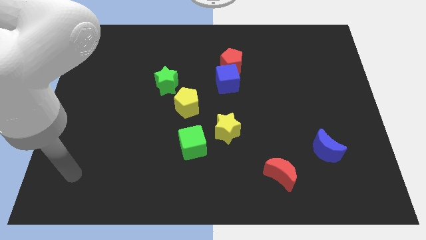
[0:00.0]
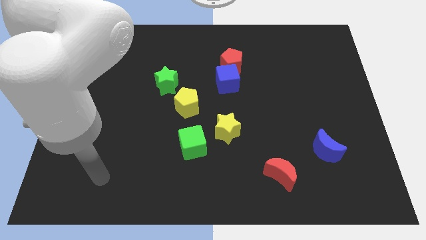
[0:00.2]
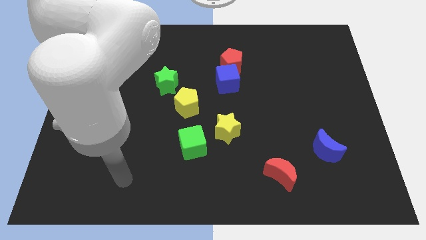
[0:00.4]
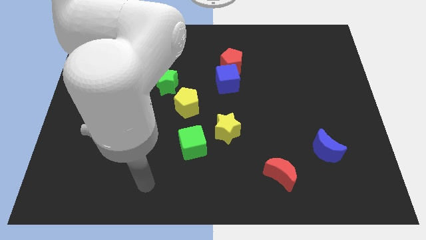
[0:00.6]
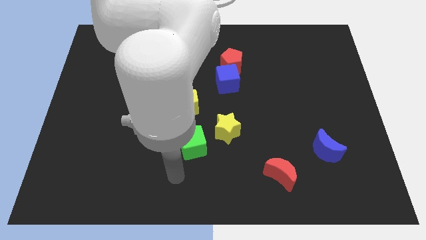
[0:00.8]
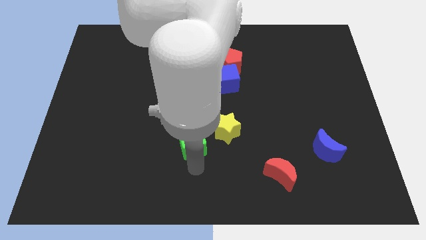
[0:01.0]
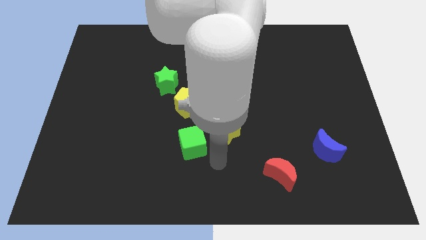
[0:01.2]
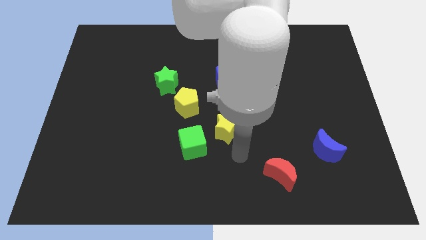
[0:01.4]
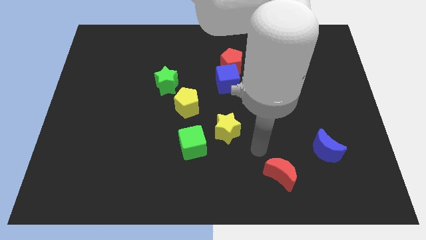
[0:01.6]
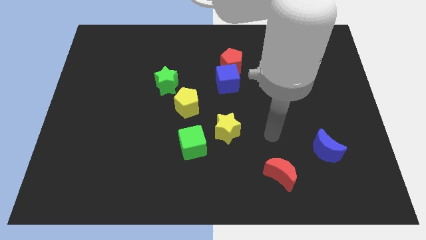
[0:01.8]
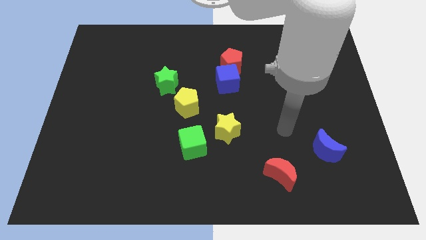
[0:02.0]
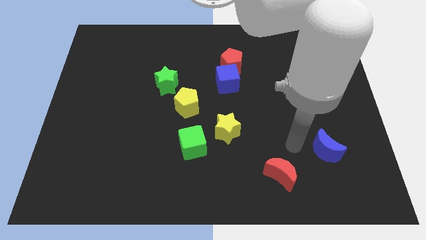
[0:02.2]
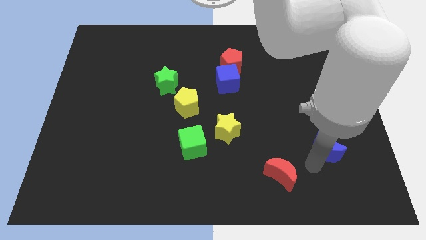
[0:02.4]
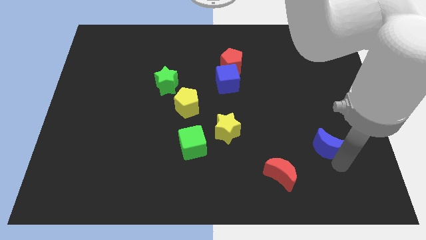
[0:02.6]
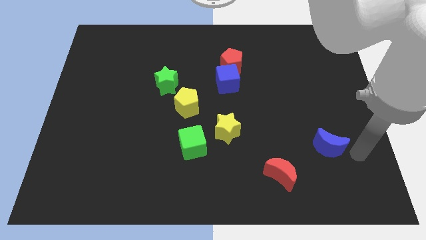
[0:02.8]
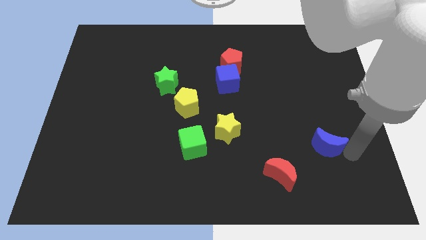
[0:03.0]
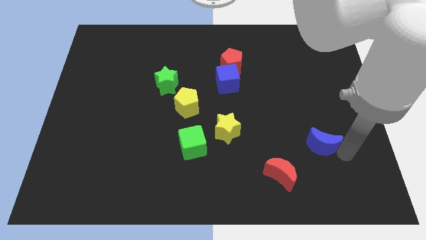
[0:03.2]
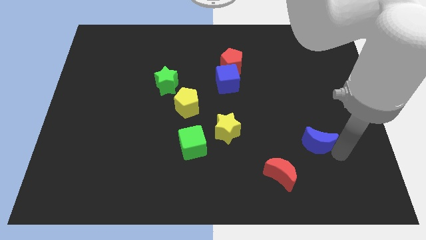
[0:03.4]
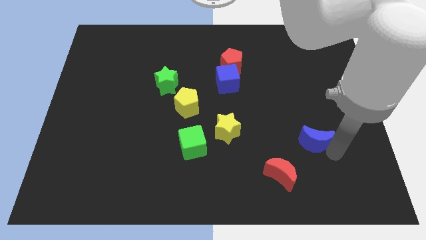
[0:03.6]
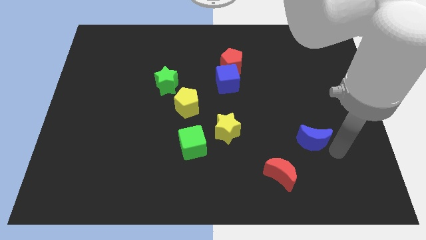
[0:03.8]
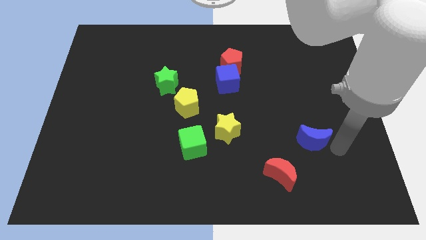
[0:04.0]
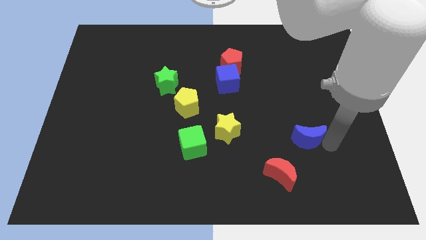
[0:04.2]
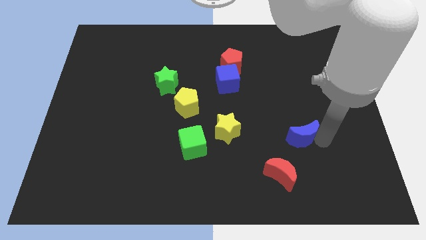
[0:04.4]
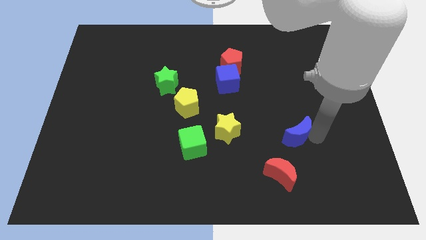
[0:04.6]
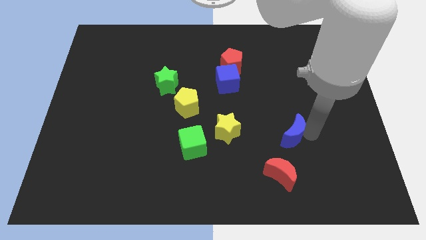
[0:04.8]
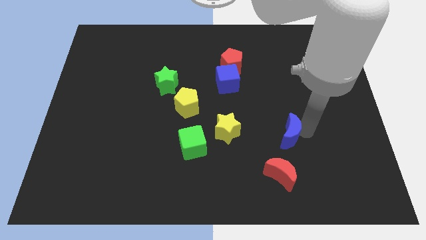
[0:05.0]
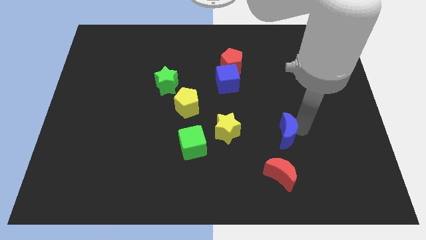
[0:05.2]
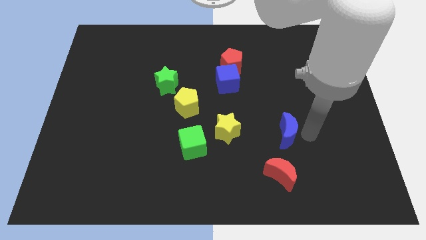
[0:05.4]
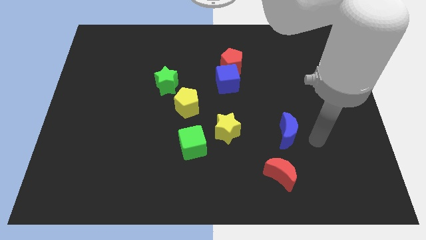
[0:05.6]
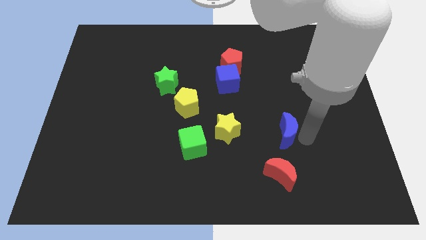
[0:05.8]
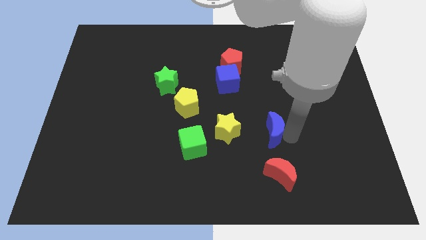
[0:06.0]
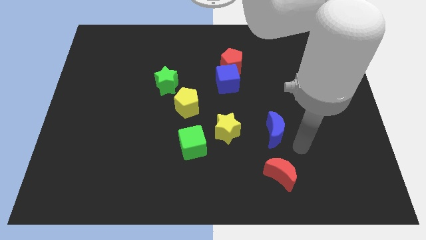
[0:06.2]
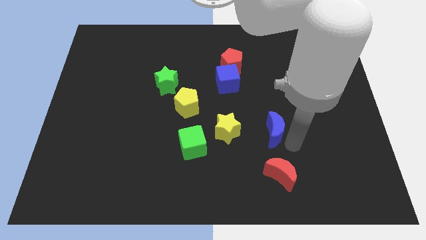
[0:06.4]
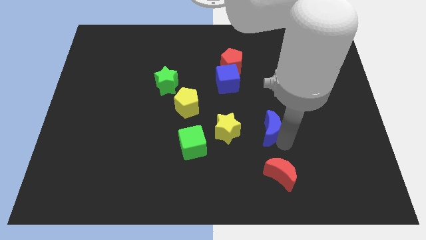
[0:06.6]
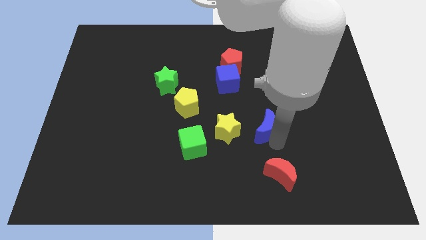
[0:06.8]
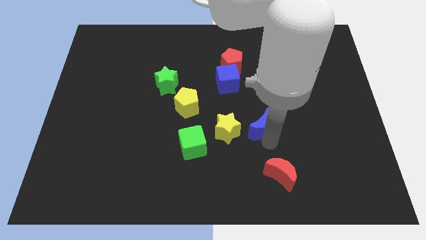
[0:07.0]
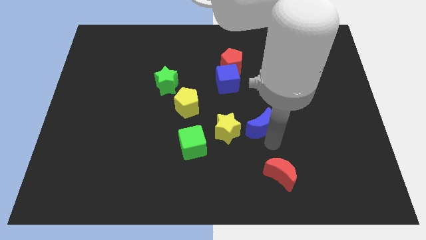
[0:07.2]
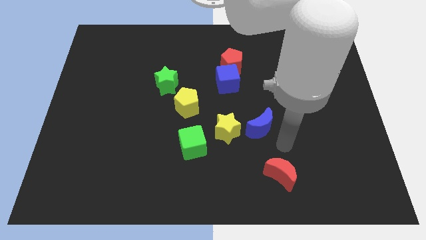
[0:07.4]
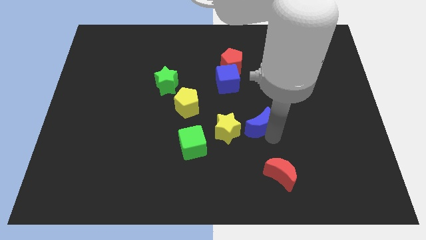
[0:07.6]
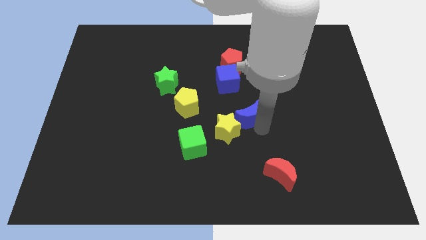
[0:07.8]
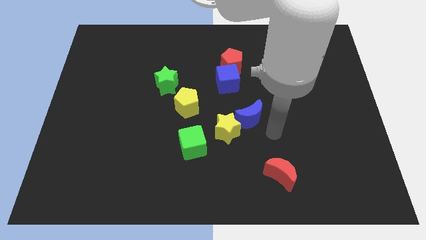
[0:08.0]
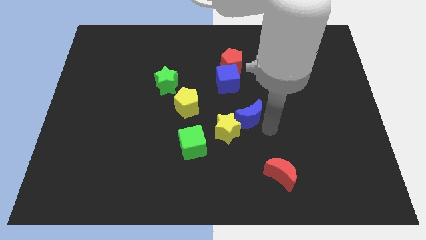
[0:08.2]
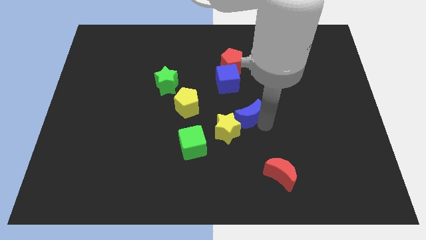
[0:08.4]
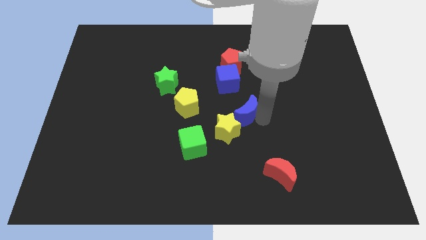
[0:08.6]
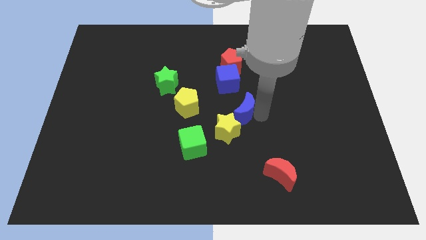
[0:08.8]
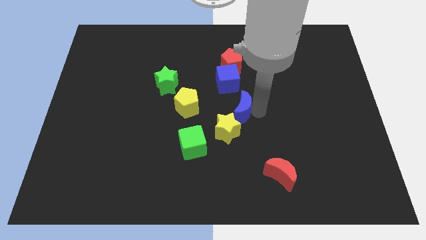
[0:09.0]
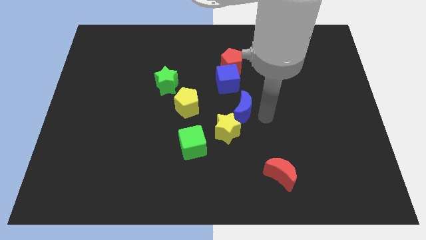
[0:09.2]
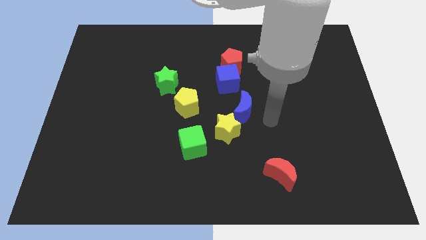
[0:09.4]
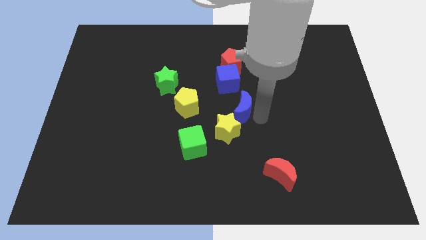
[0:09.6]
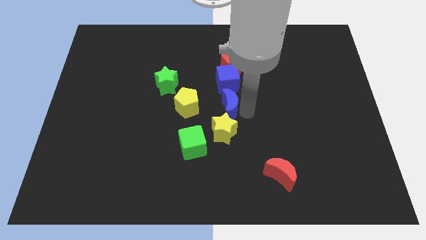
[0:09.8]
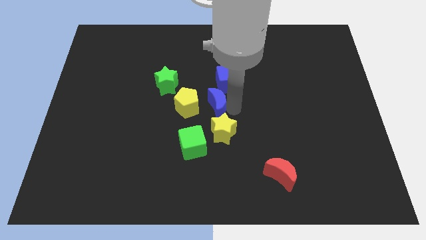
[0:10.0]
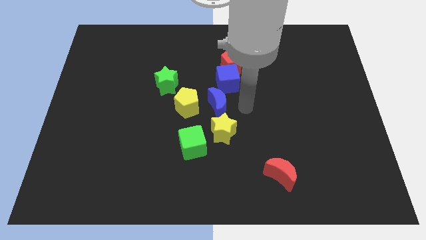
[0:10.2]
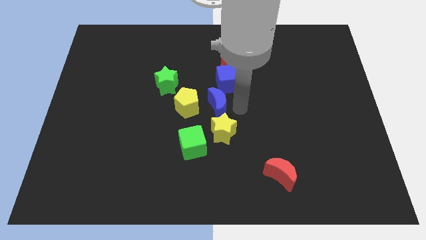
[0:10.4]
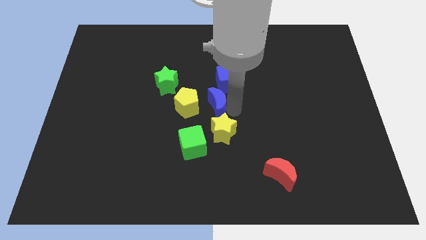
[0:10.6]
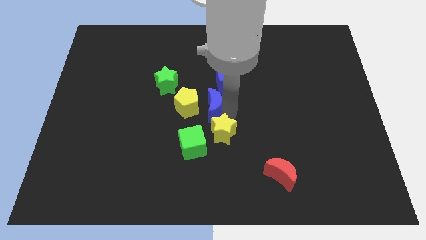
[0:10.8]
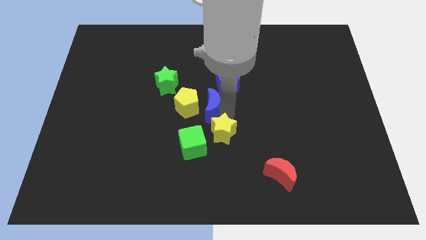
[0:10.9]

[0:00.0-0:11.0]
push the blue moon close to the yellow pentagon

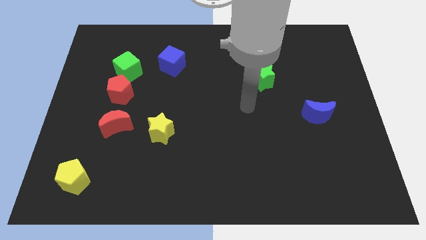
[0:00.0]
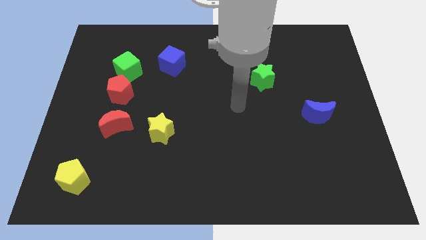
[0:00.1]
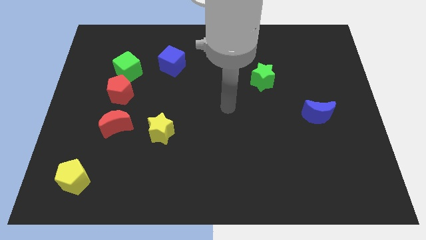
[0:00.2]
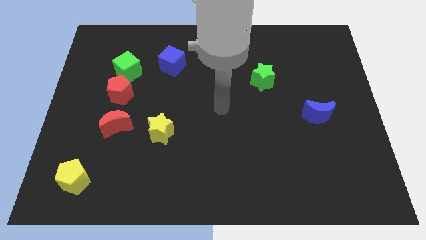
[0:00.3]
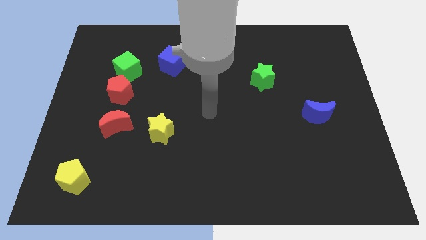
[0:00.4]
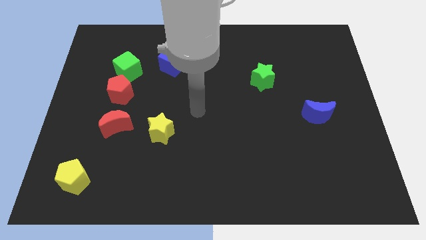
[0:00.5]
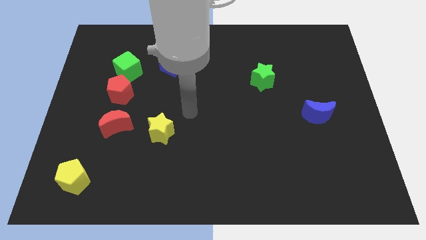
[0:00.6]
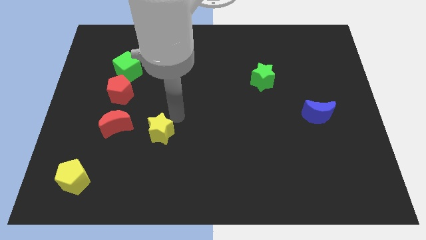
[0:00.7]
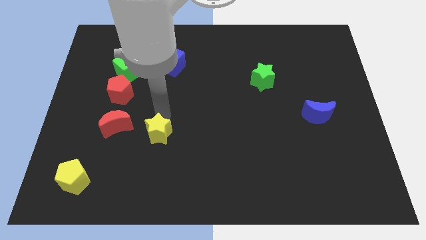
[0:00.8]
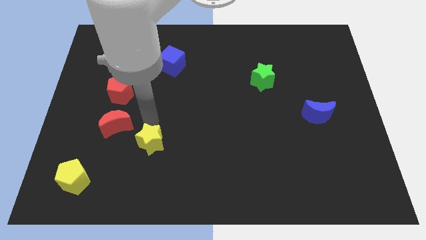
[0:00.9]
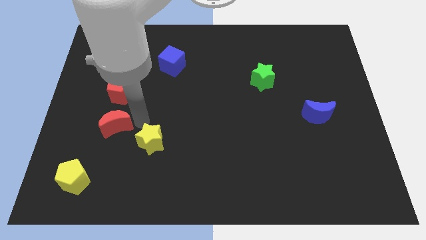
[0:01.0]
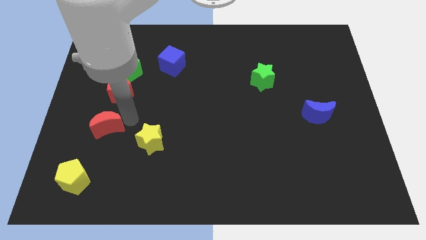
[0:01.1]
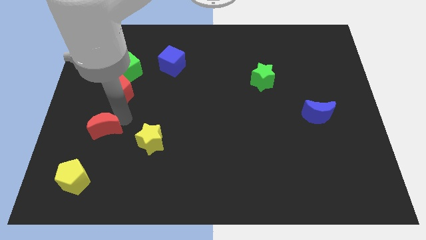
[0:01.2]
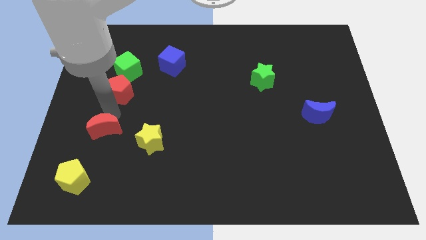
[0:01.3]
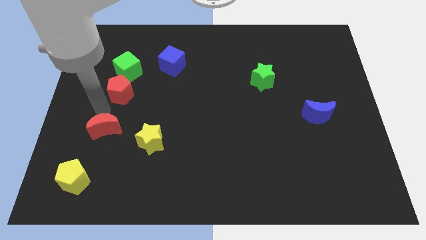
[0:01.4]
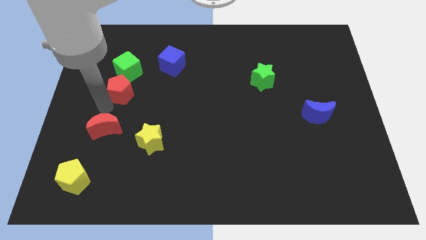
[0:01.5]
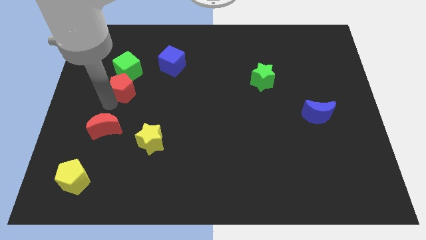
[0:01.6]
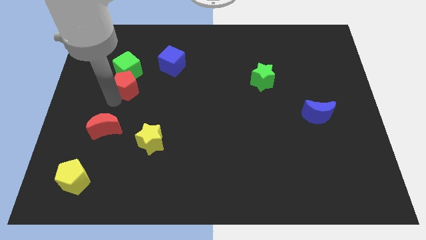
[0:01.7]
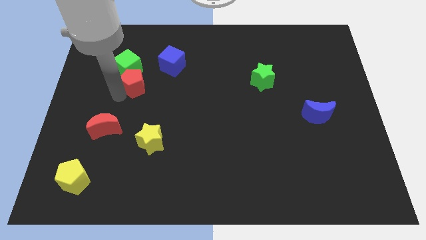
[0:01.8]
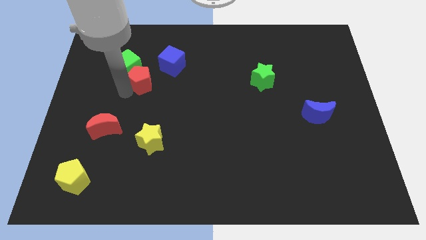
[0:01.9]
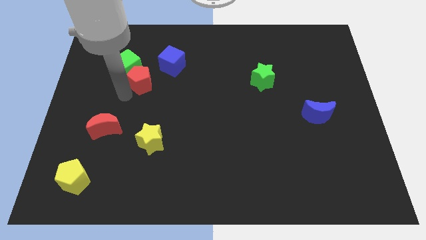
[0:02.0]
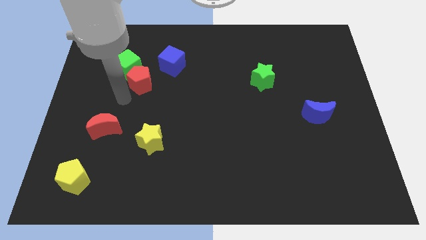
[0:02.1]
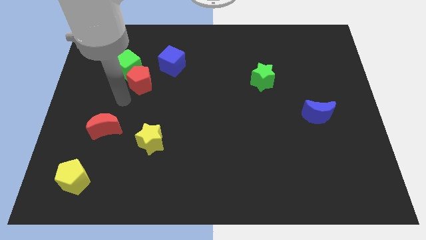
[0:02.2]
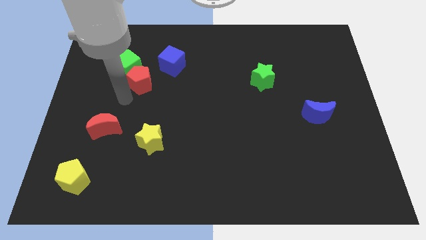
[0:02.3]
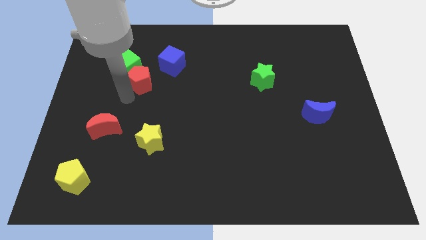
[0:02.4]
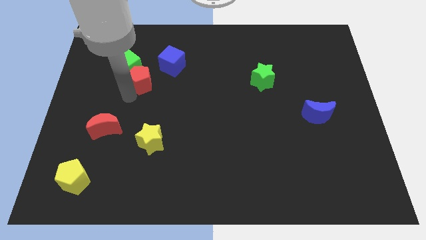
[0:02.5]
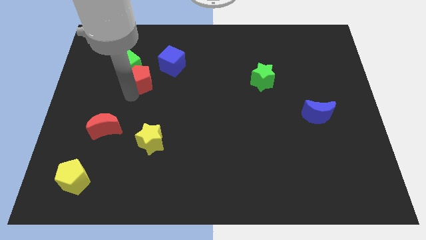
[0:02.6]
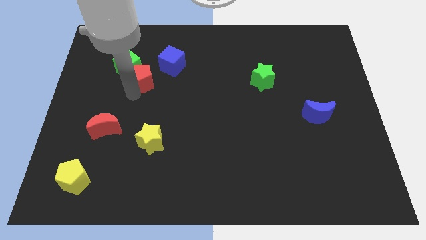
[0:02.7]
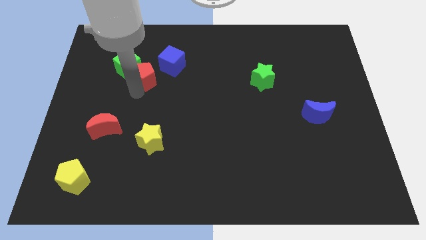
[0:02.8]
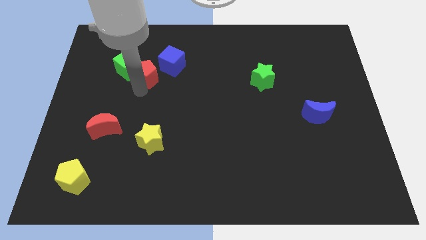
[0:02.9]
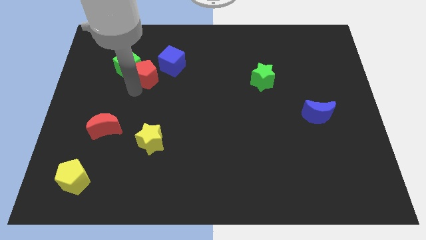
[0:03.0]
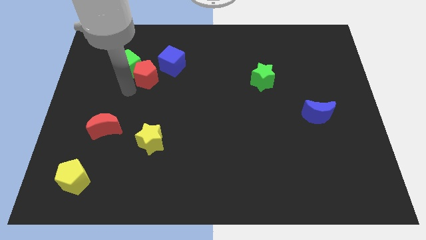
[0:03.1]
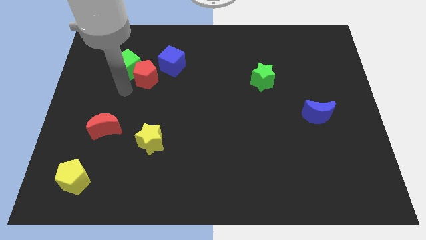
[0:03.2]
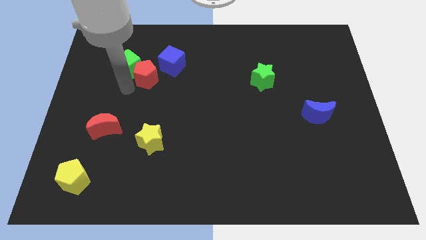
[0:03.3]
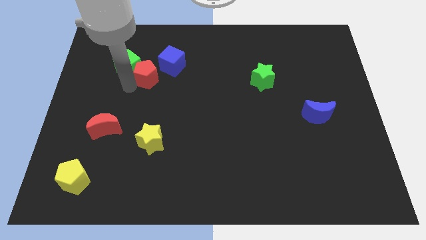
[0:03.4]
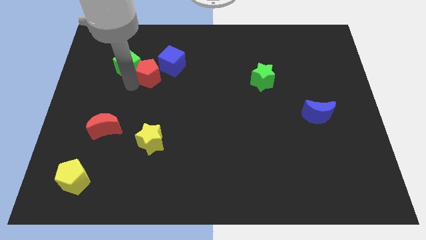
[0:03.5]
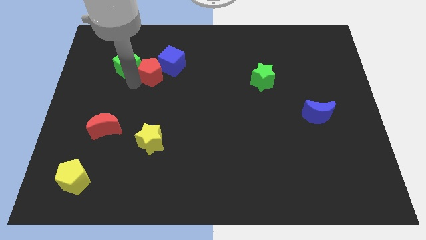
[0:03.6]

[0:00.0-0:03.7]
slide the red pentagon to the blue cube
